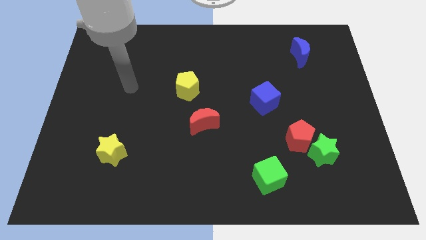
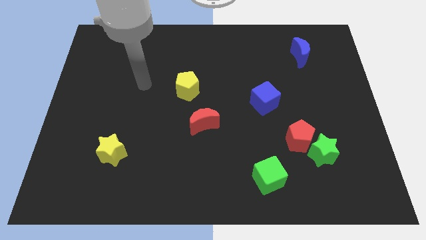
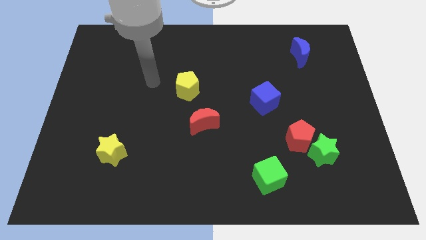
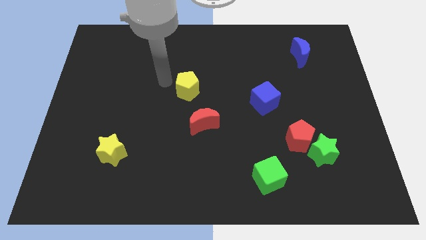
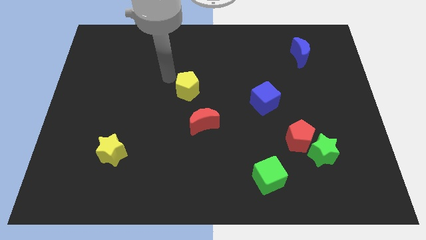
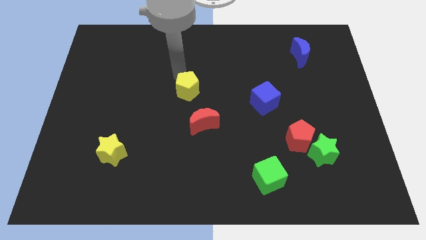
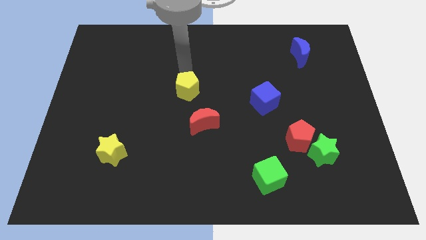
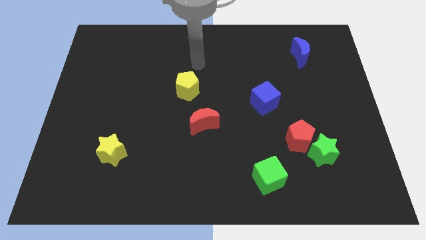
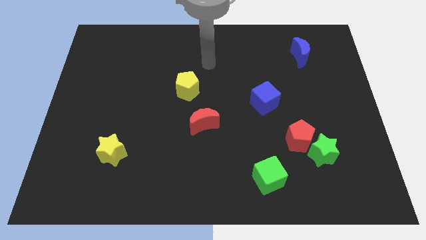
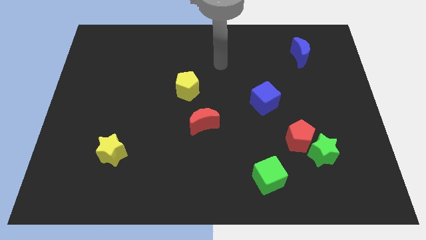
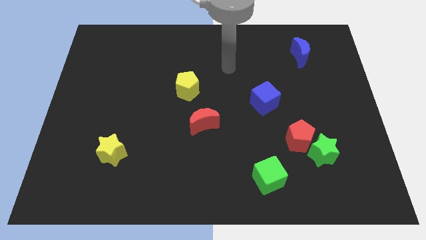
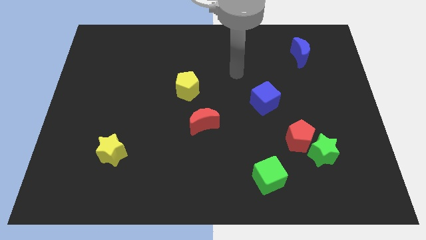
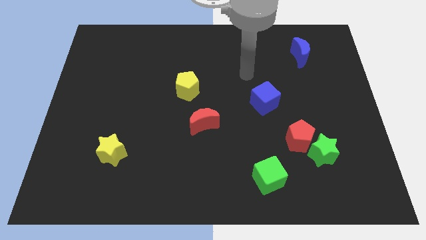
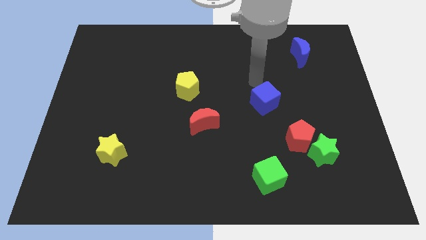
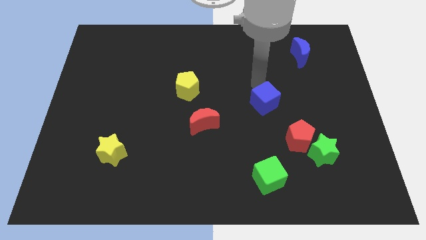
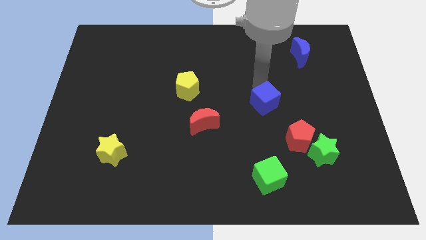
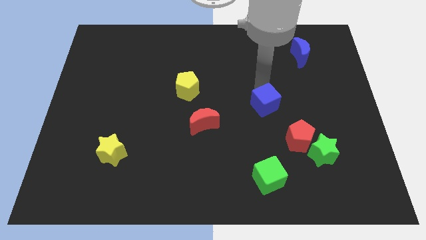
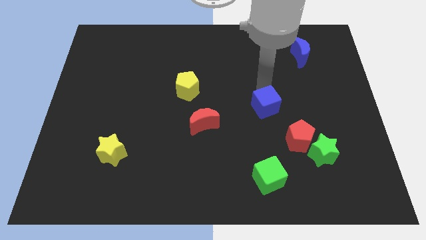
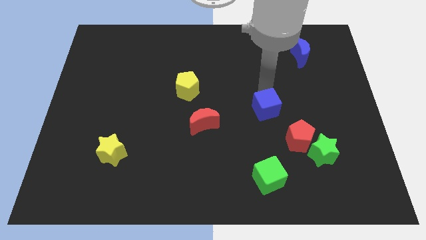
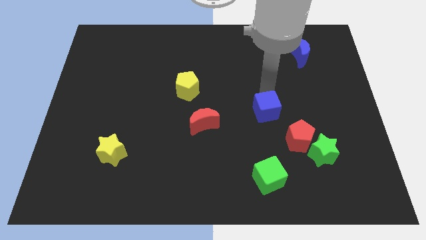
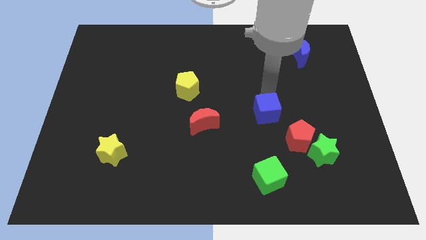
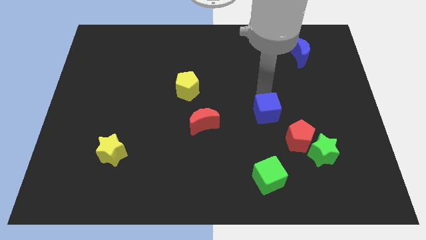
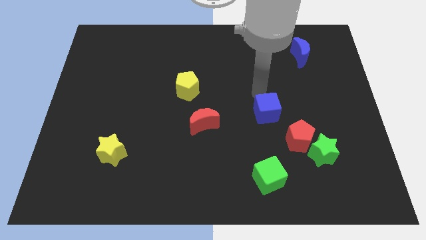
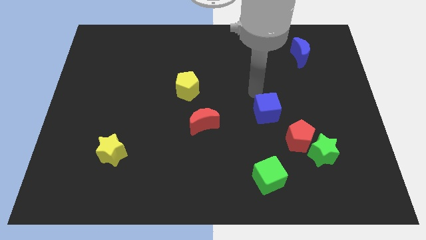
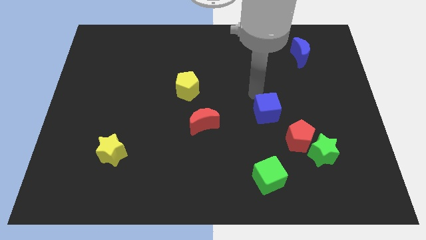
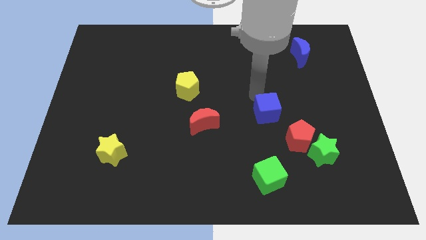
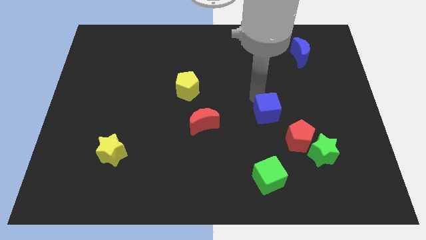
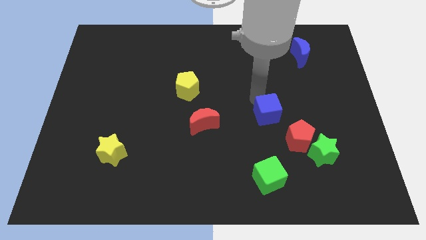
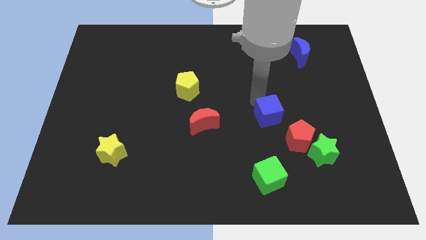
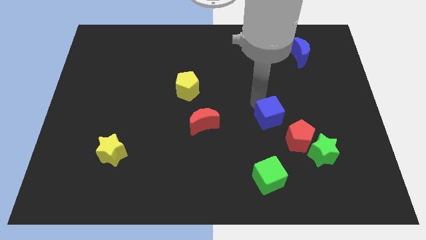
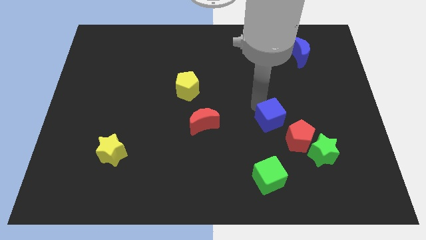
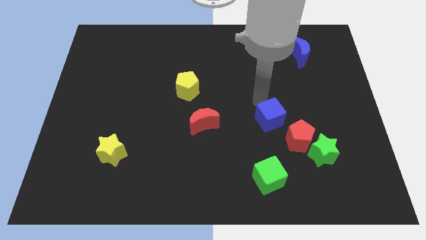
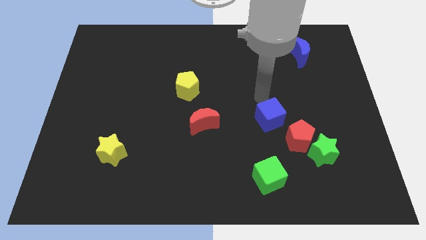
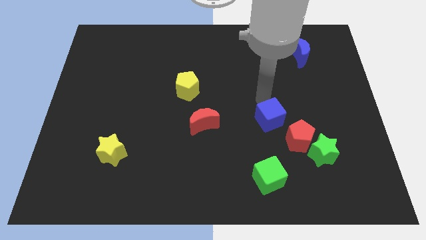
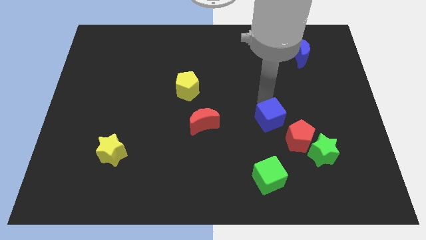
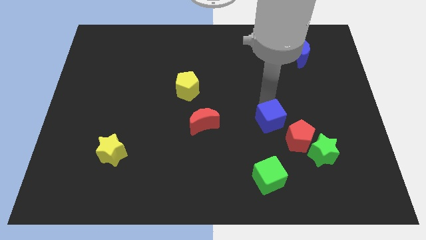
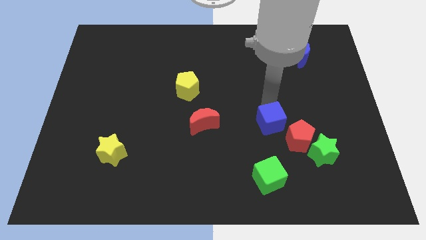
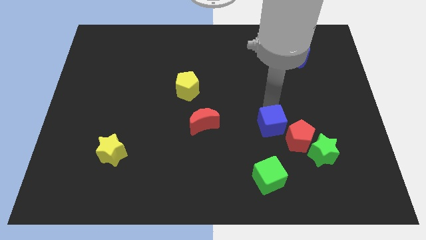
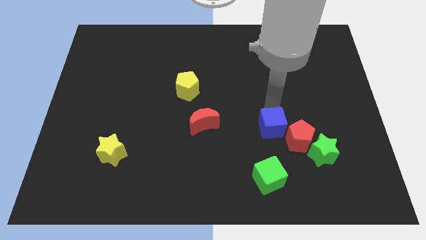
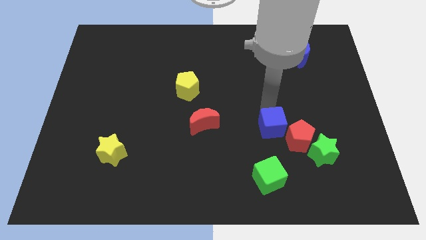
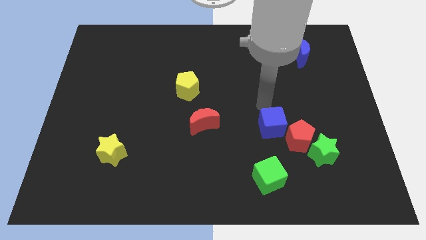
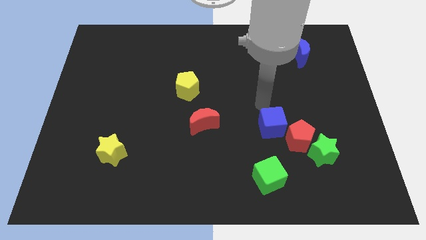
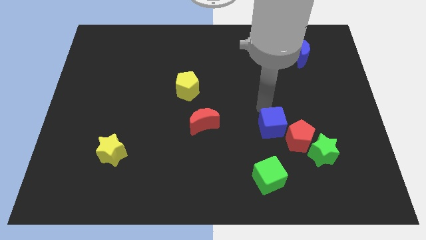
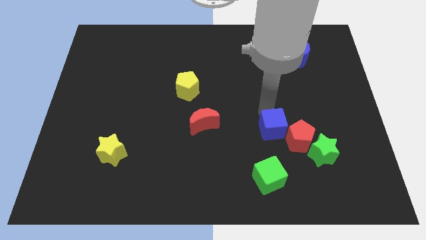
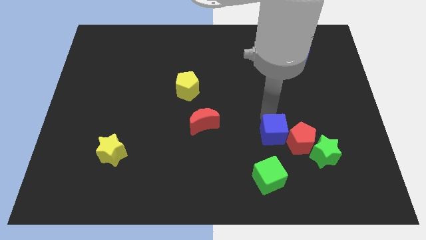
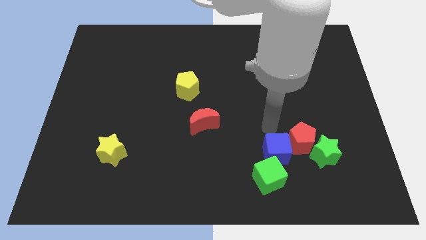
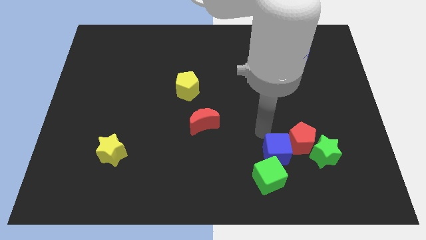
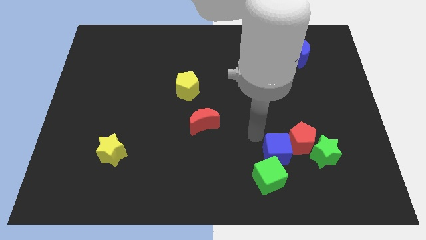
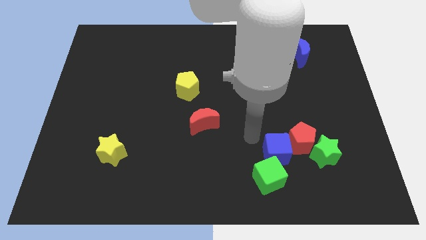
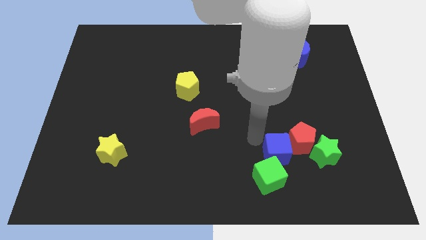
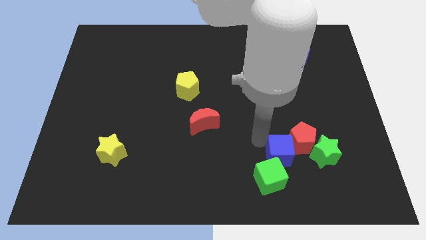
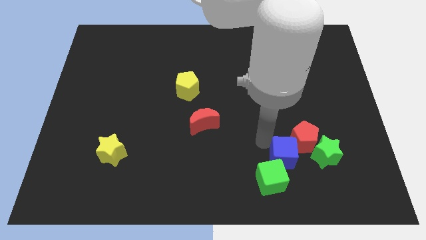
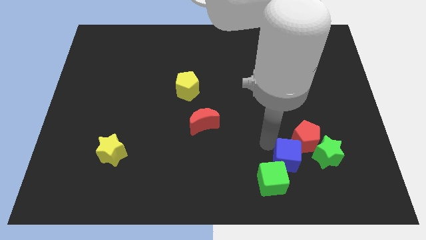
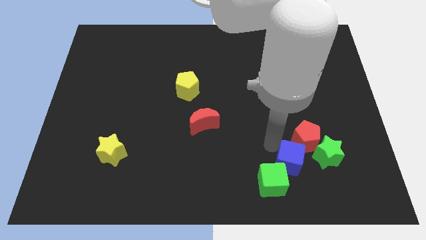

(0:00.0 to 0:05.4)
slide the blue cube to the right of the green cube

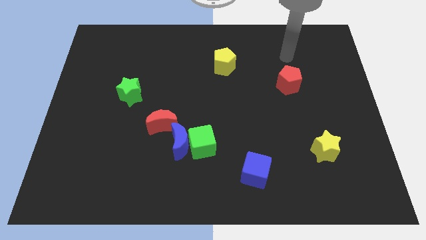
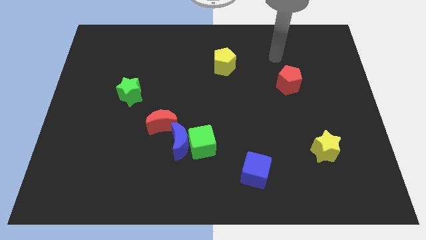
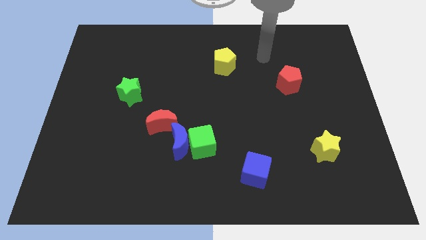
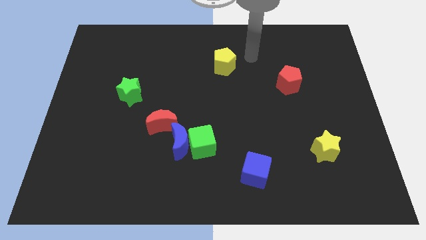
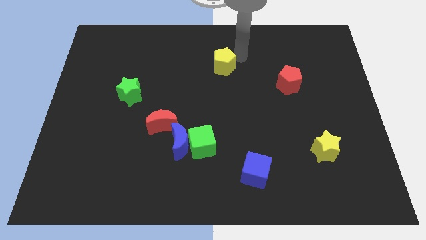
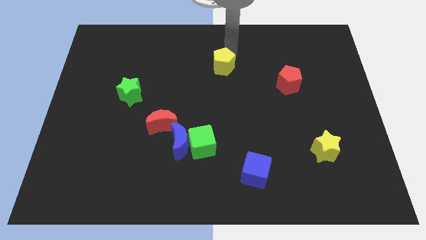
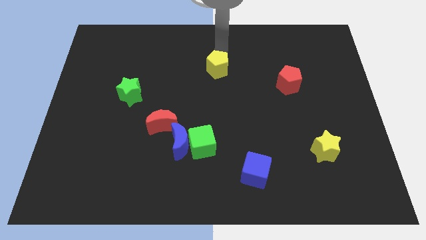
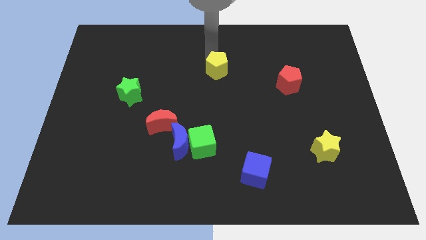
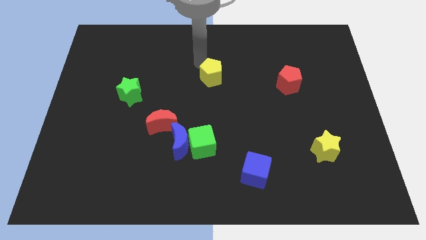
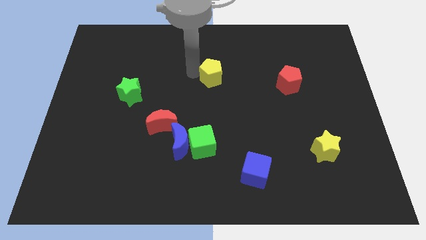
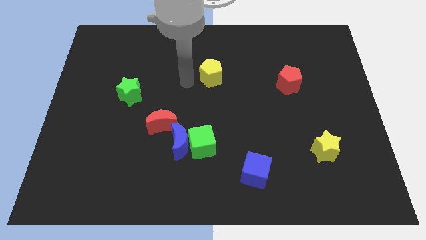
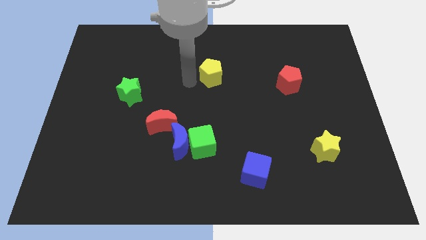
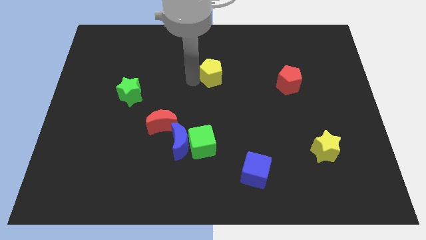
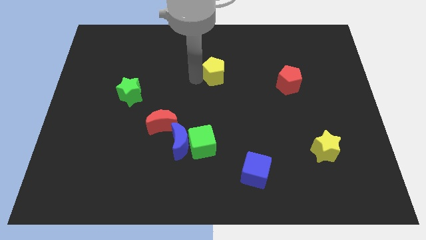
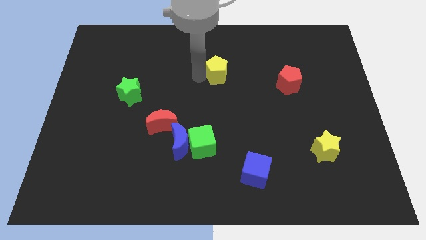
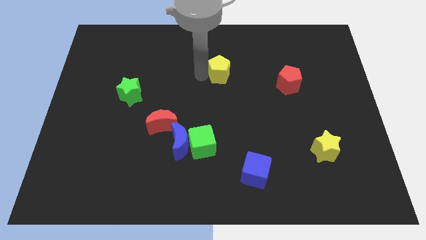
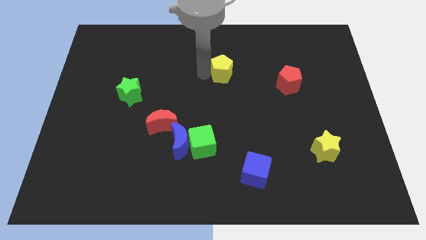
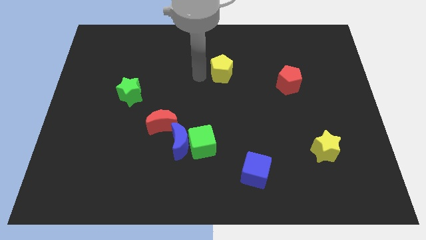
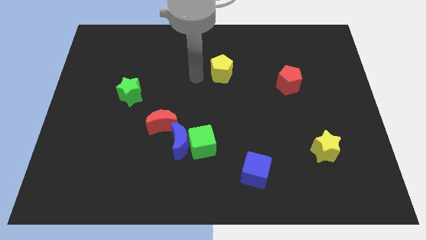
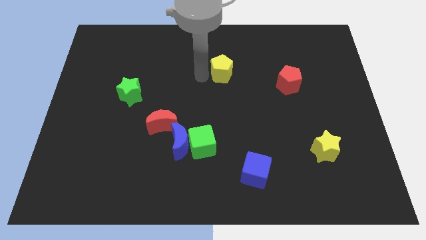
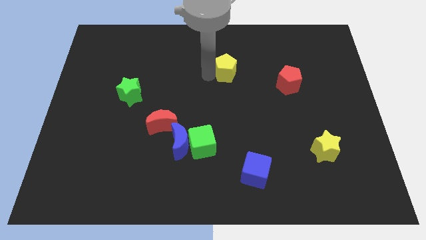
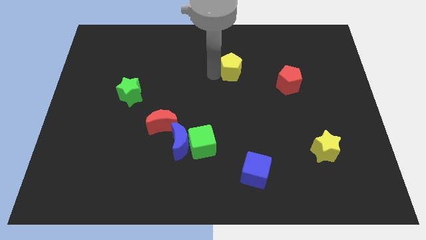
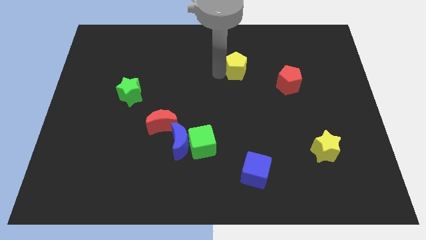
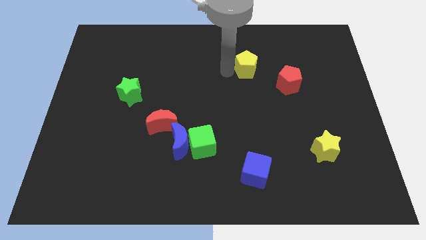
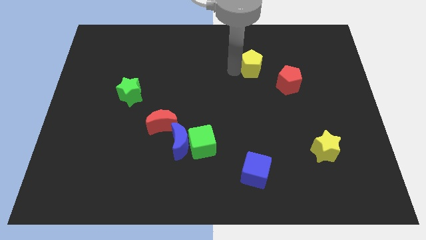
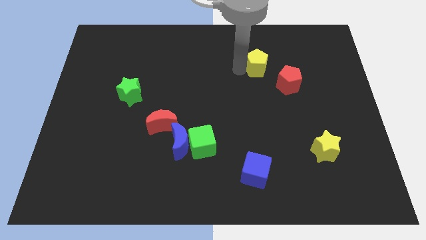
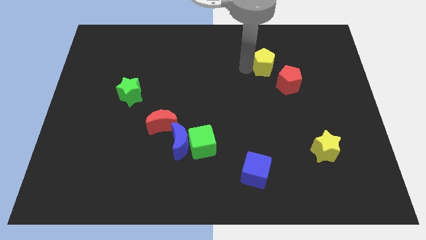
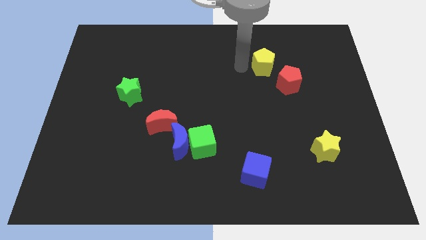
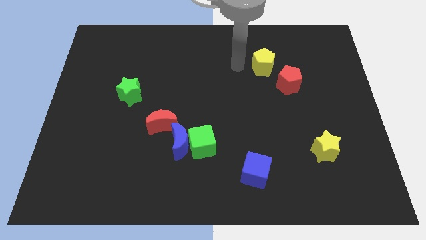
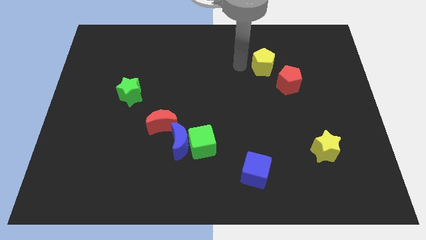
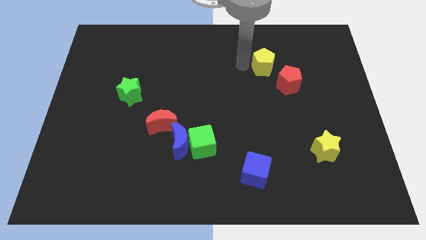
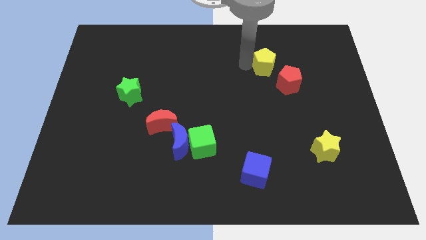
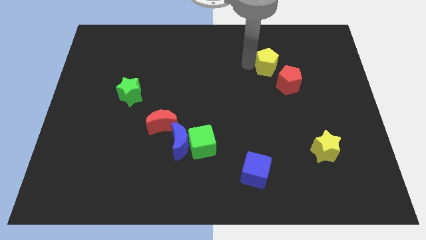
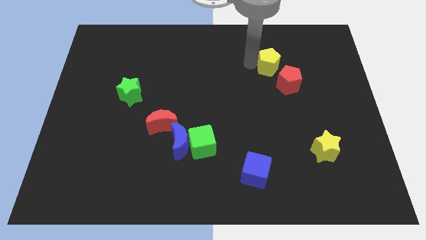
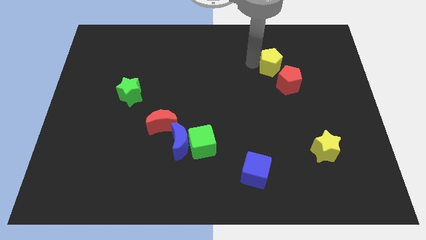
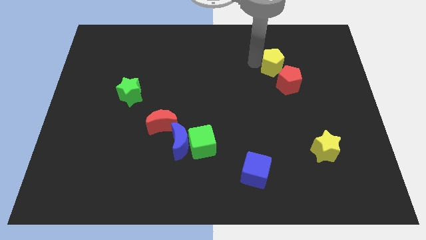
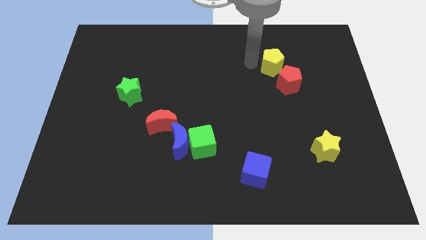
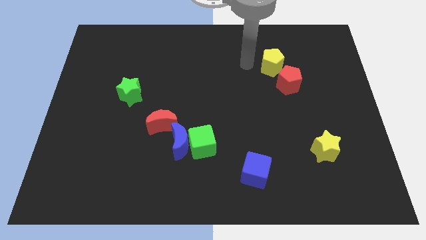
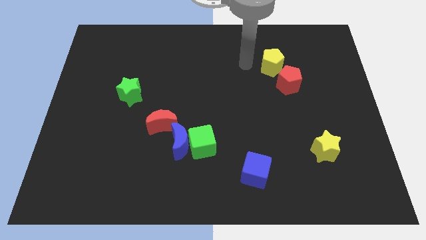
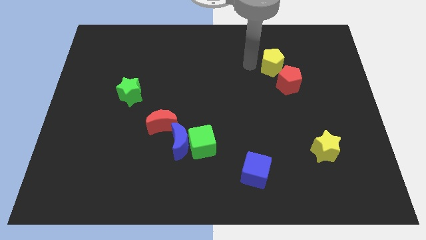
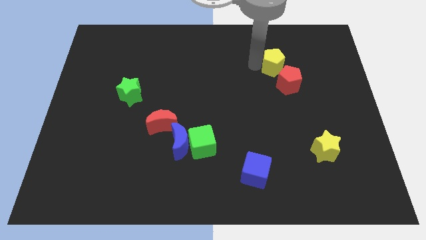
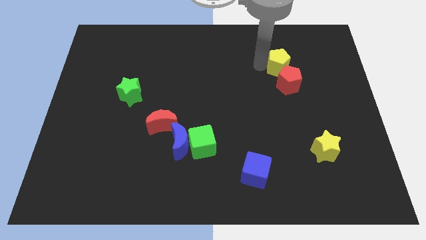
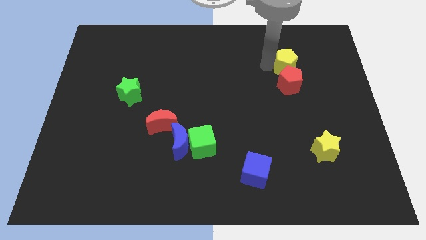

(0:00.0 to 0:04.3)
move the yellow pentagon diagonally up and to the right of the red pentagon
